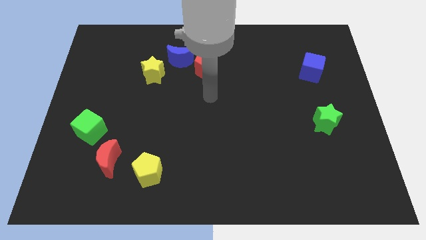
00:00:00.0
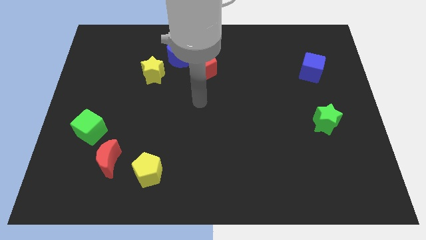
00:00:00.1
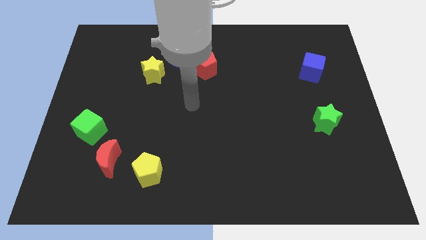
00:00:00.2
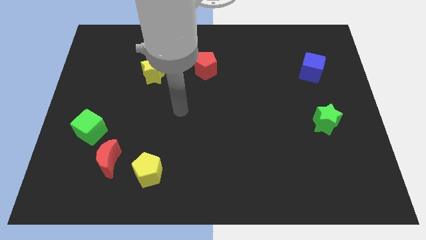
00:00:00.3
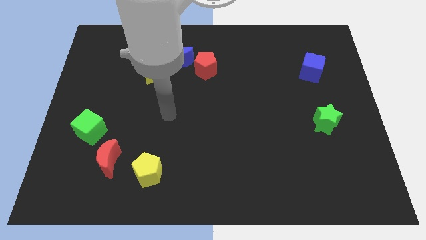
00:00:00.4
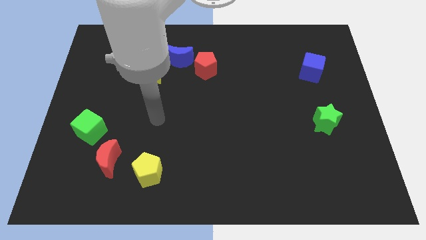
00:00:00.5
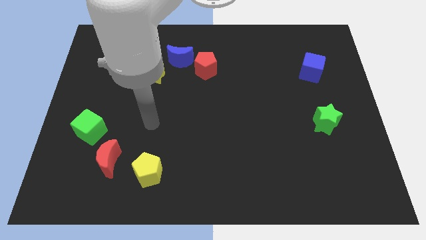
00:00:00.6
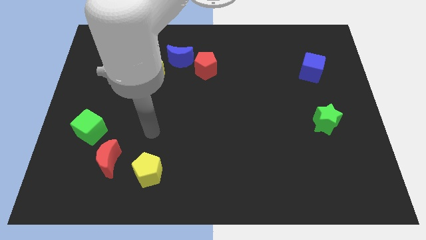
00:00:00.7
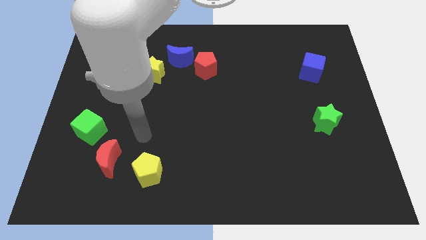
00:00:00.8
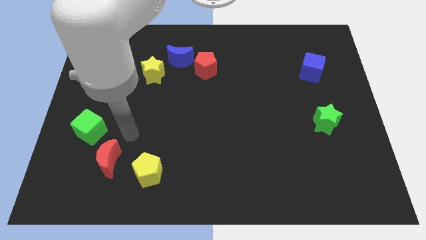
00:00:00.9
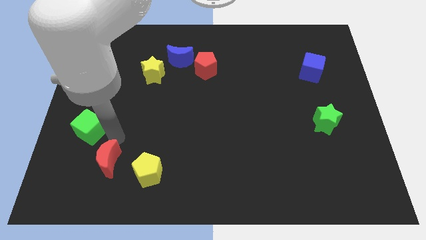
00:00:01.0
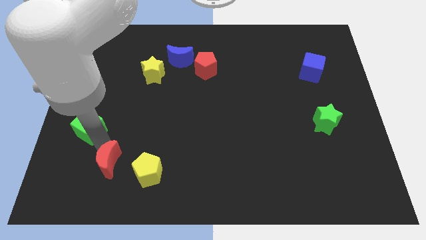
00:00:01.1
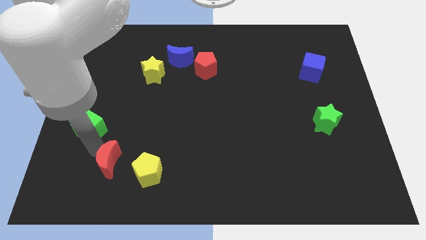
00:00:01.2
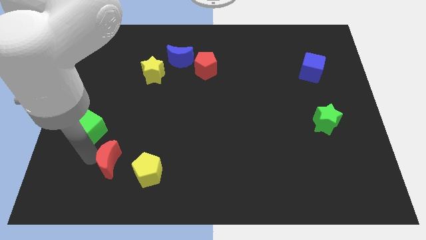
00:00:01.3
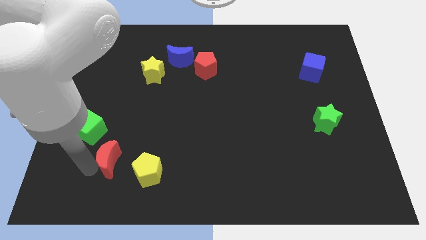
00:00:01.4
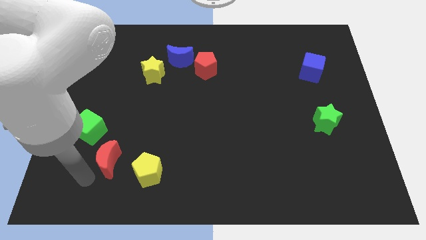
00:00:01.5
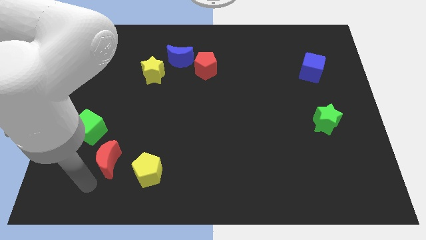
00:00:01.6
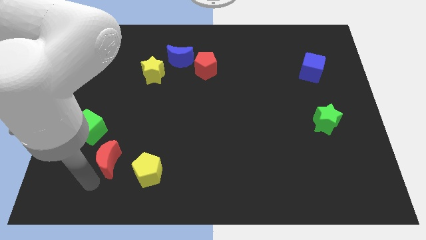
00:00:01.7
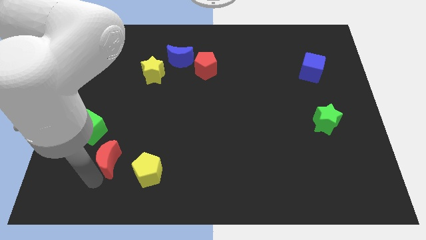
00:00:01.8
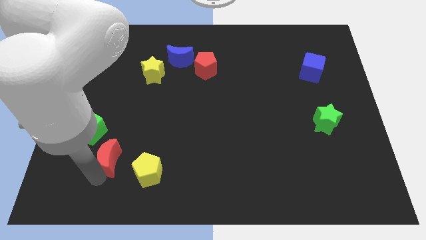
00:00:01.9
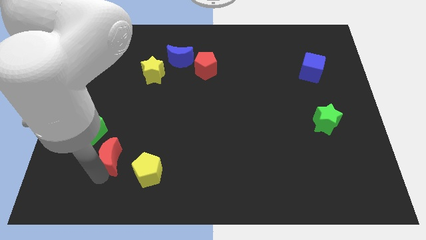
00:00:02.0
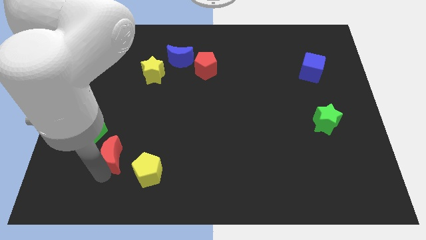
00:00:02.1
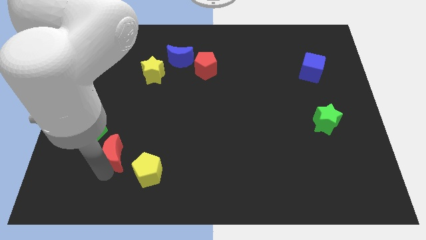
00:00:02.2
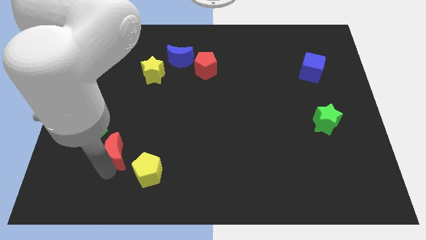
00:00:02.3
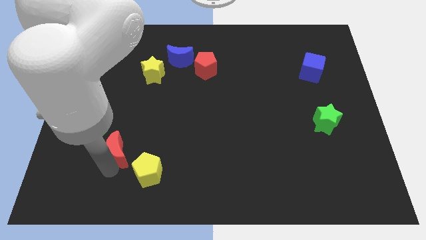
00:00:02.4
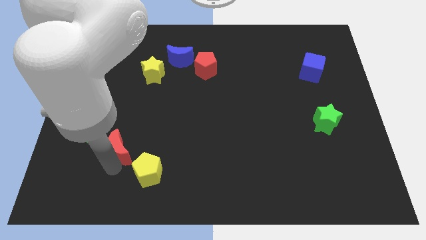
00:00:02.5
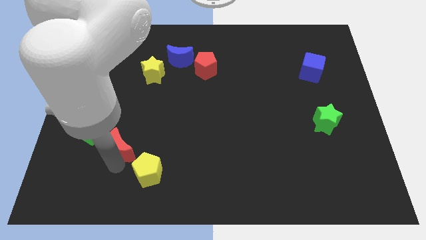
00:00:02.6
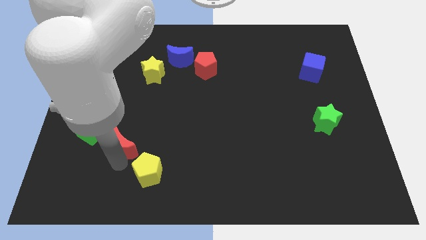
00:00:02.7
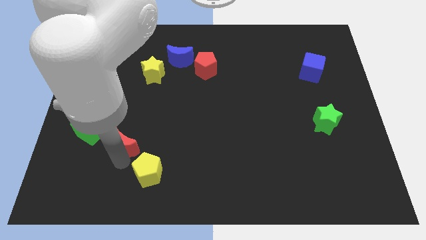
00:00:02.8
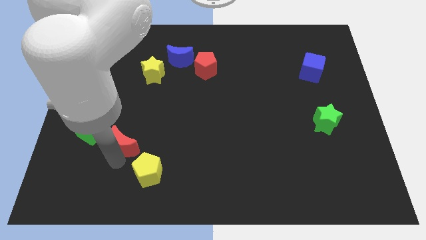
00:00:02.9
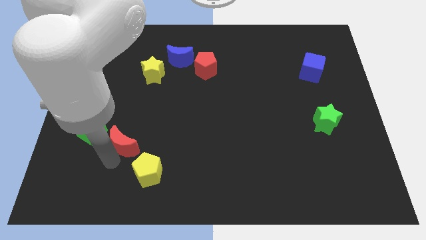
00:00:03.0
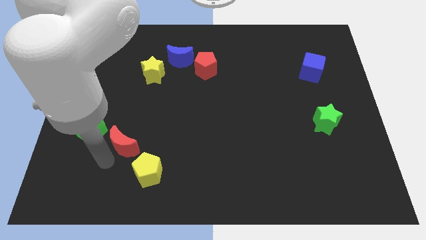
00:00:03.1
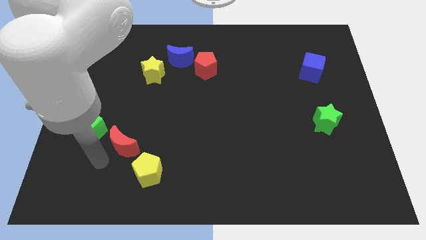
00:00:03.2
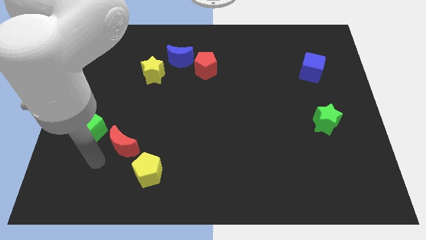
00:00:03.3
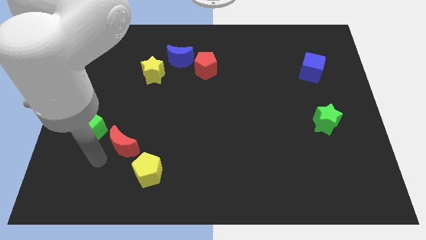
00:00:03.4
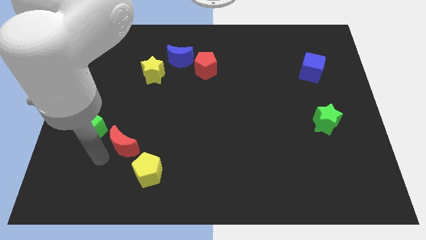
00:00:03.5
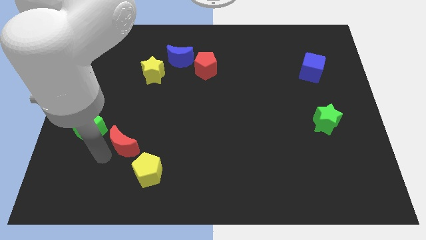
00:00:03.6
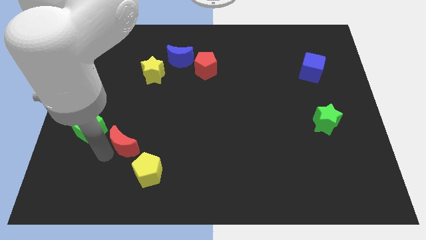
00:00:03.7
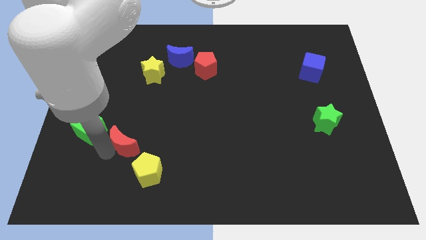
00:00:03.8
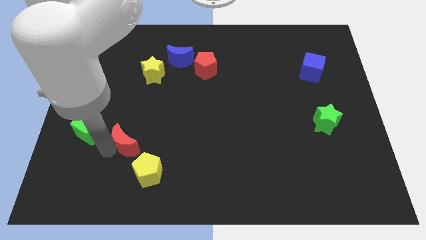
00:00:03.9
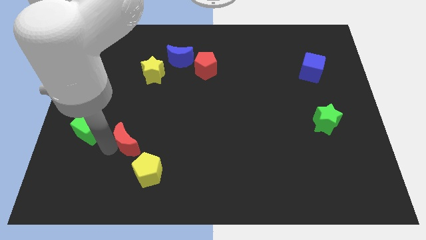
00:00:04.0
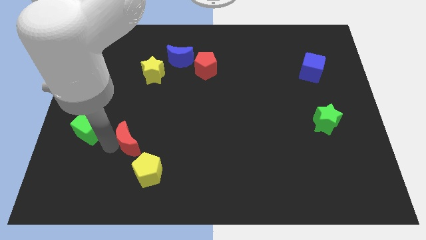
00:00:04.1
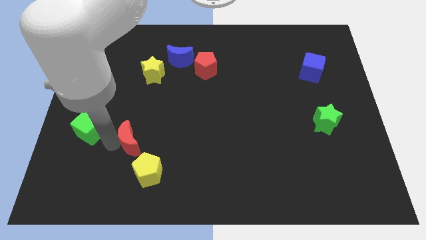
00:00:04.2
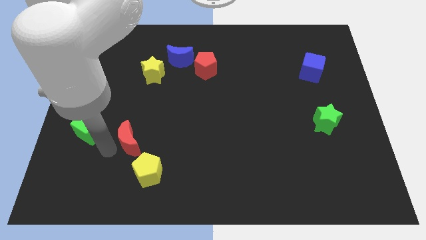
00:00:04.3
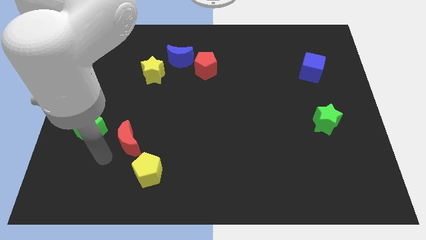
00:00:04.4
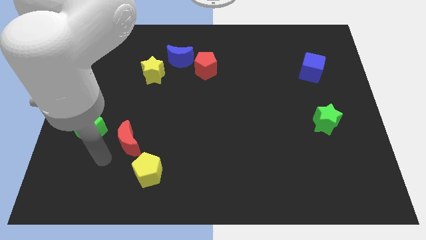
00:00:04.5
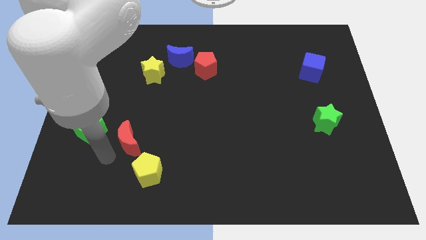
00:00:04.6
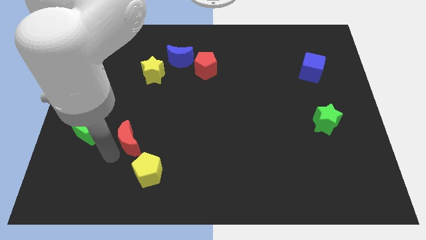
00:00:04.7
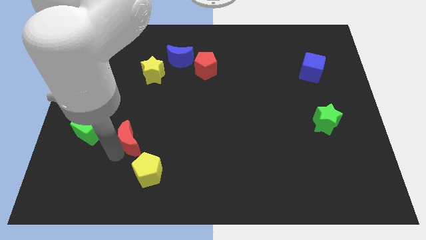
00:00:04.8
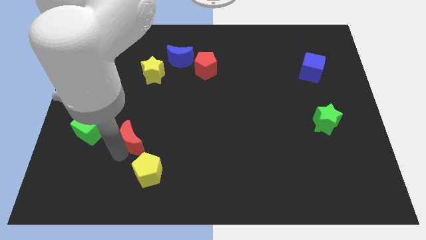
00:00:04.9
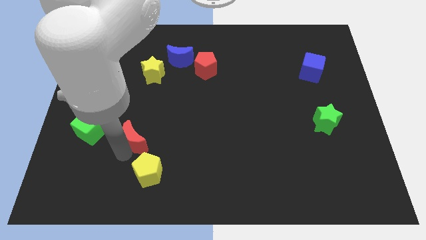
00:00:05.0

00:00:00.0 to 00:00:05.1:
push the red moon diagonally upwards and right a little bit

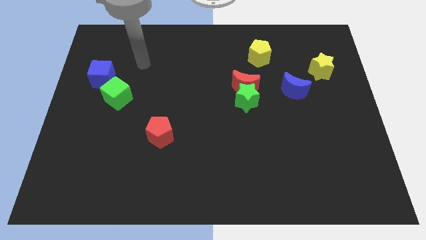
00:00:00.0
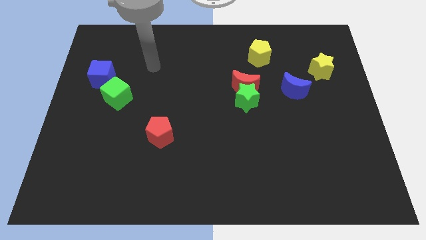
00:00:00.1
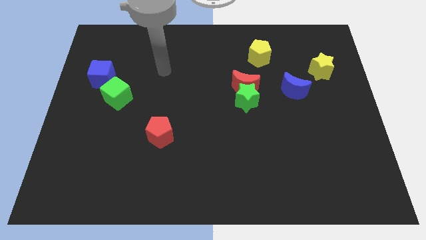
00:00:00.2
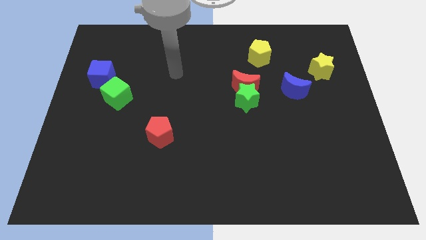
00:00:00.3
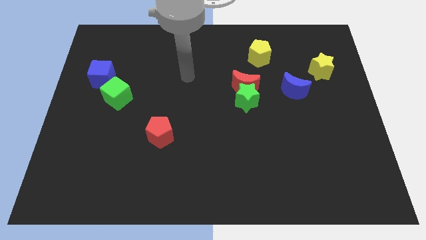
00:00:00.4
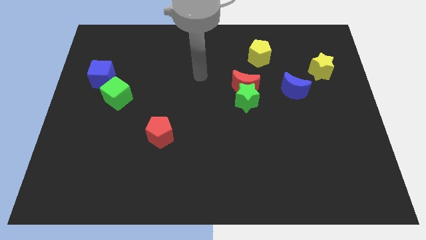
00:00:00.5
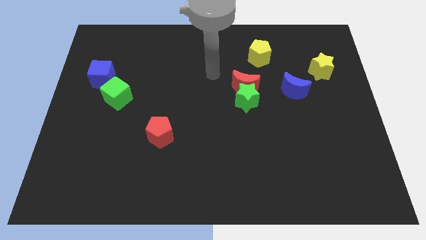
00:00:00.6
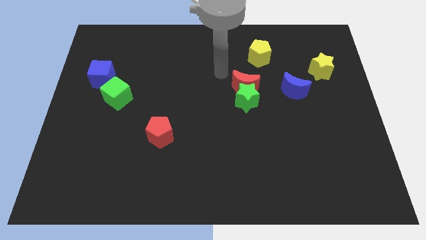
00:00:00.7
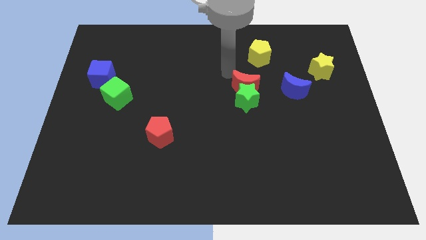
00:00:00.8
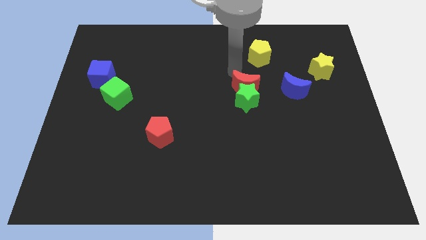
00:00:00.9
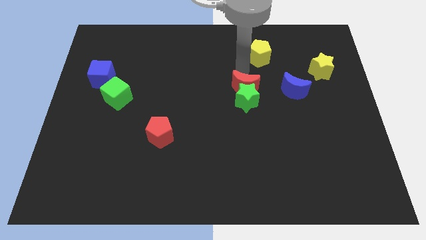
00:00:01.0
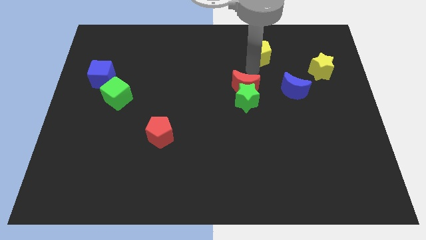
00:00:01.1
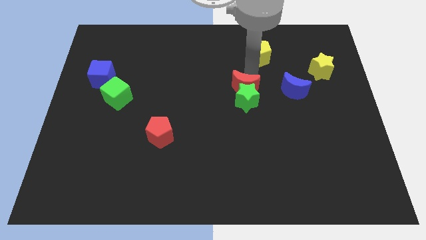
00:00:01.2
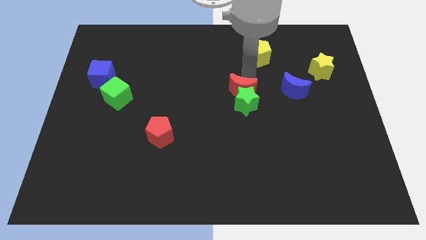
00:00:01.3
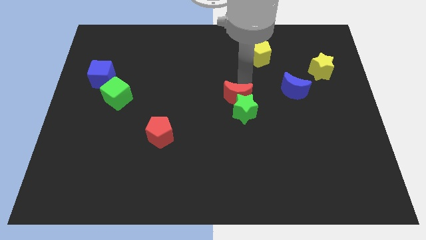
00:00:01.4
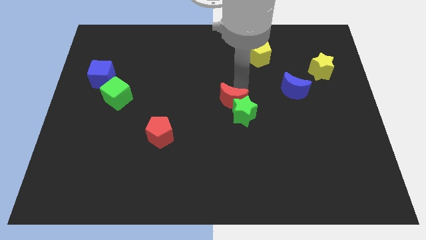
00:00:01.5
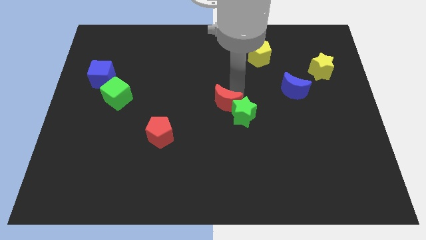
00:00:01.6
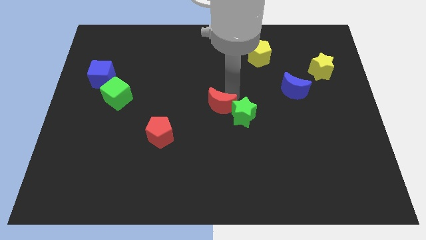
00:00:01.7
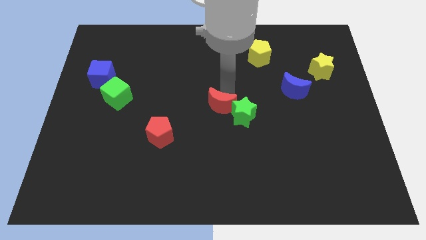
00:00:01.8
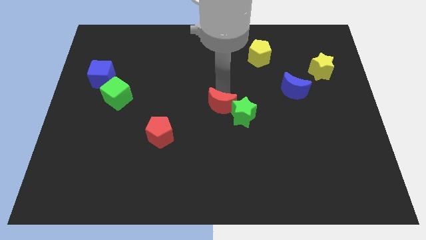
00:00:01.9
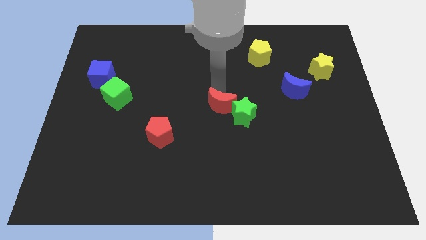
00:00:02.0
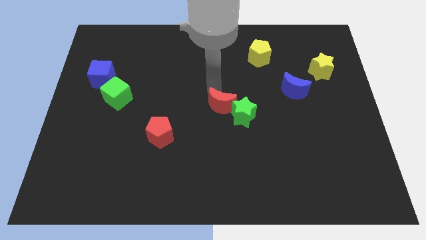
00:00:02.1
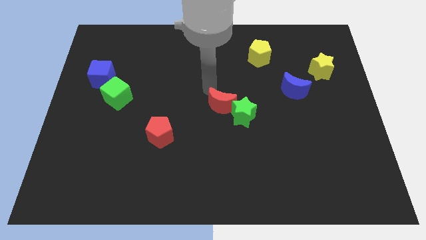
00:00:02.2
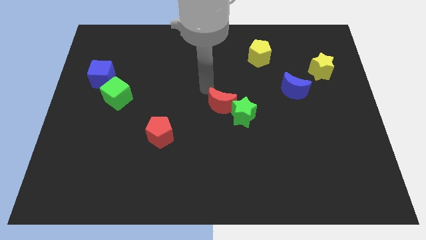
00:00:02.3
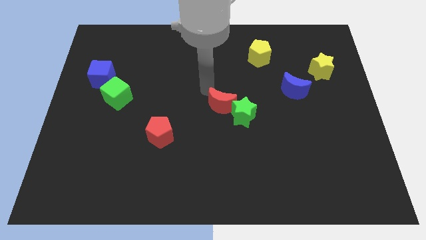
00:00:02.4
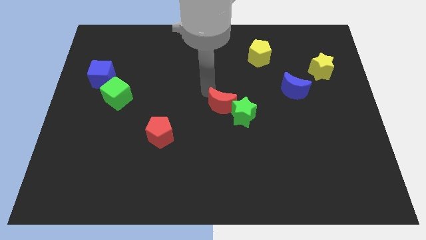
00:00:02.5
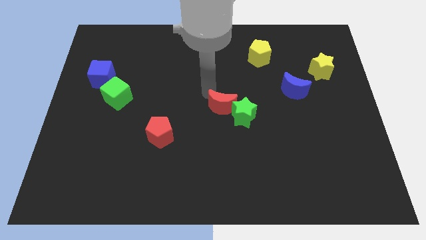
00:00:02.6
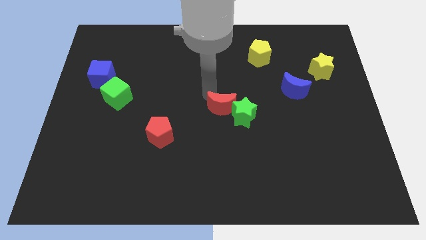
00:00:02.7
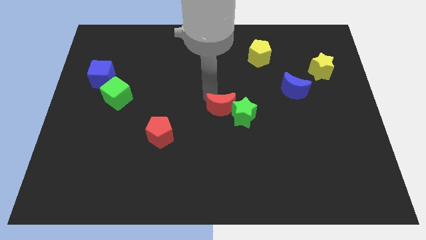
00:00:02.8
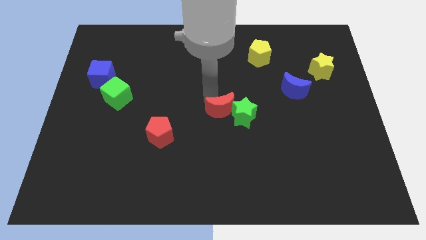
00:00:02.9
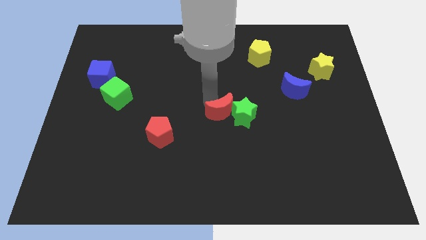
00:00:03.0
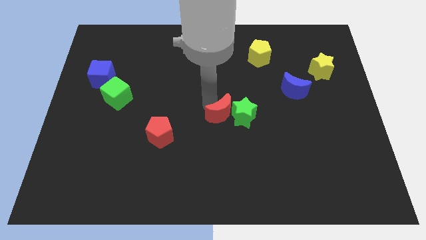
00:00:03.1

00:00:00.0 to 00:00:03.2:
move the red moon downwards a little
